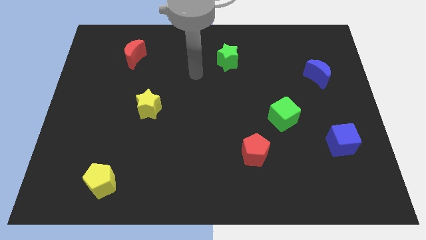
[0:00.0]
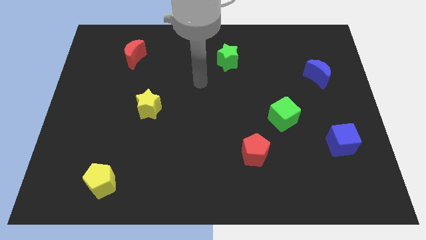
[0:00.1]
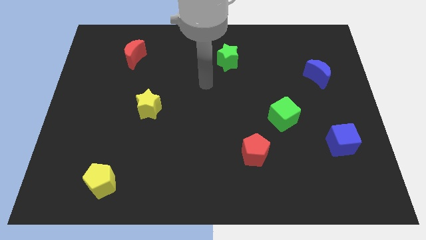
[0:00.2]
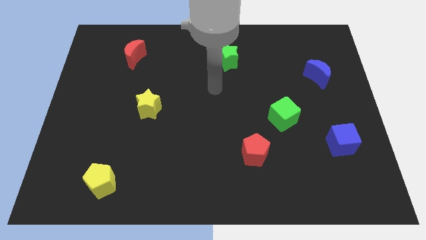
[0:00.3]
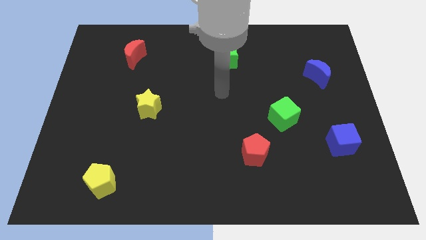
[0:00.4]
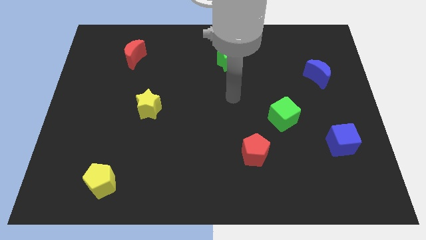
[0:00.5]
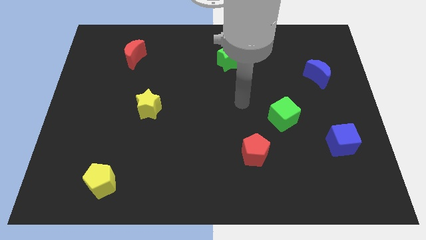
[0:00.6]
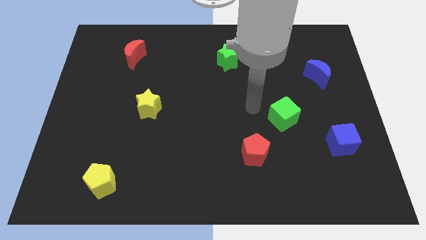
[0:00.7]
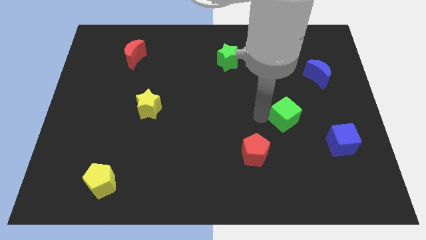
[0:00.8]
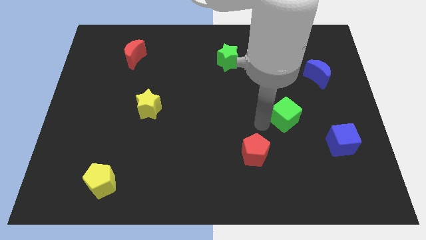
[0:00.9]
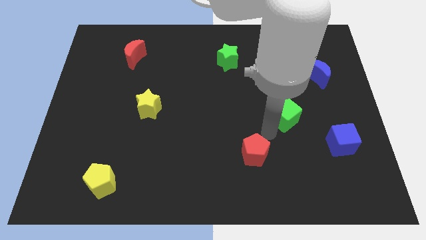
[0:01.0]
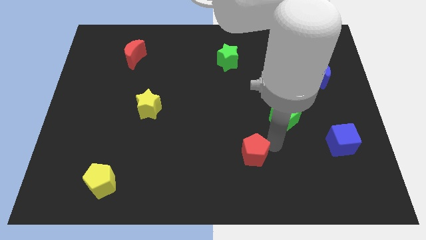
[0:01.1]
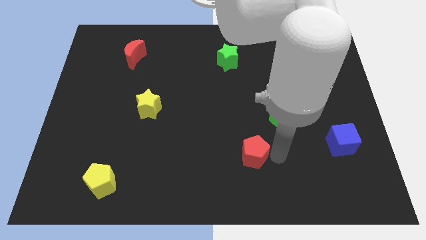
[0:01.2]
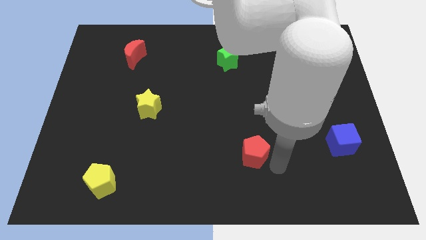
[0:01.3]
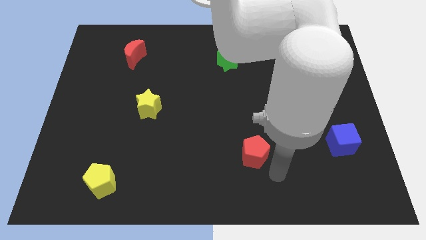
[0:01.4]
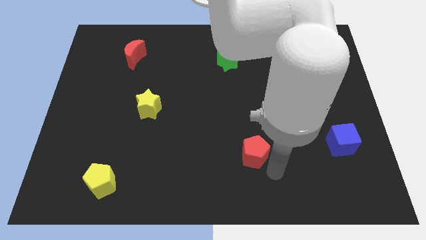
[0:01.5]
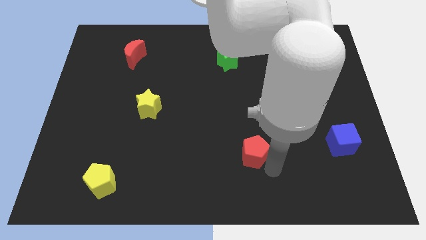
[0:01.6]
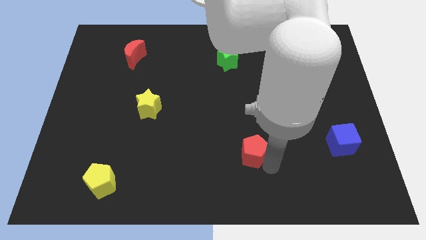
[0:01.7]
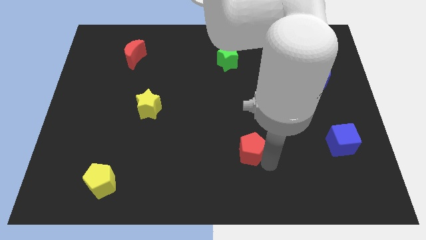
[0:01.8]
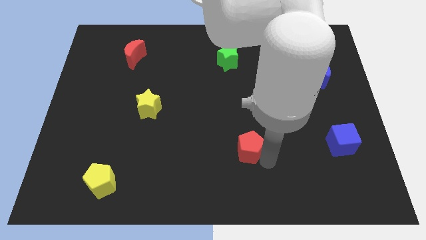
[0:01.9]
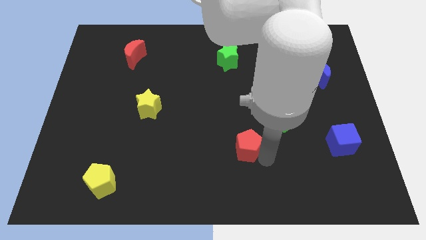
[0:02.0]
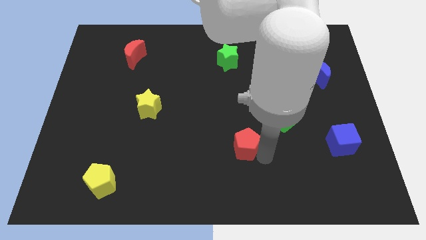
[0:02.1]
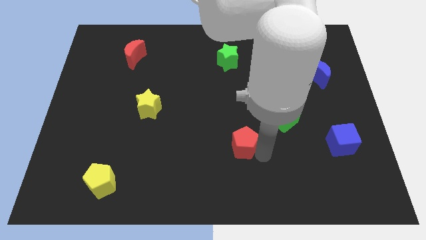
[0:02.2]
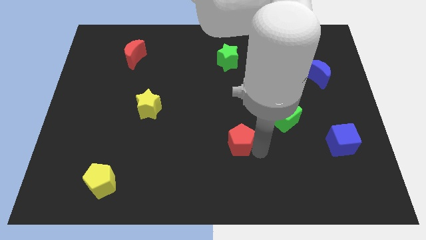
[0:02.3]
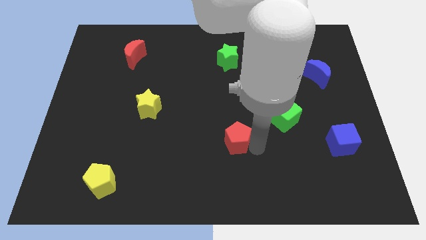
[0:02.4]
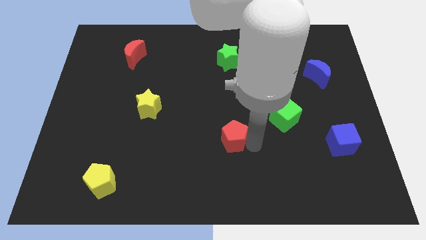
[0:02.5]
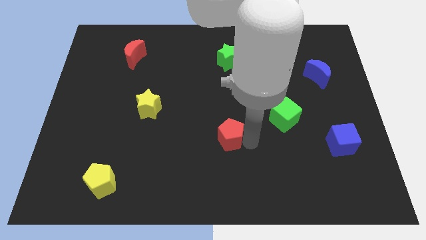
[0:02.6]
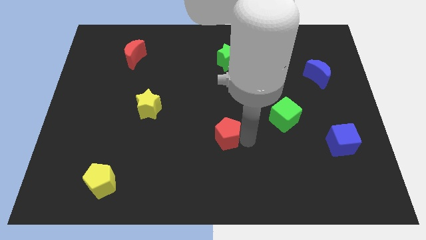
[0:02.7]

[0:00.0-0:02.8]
push the red pentagon diagonally up and to the left a bit

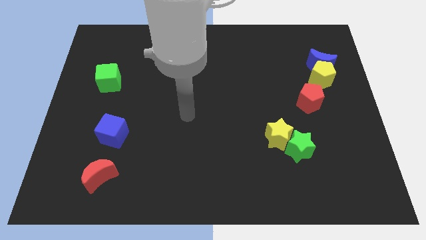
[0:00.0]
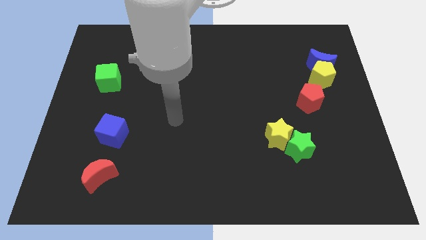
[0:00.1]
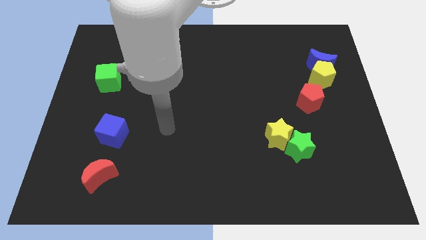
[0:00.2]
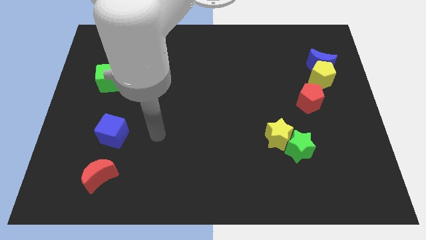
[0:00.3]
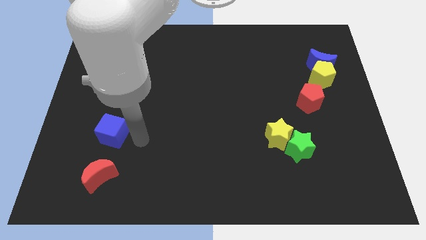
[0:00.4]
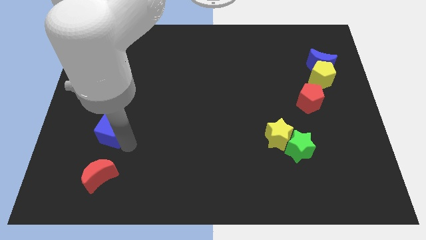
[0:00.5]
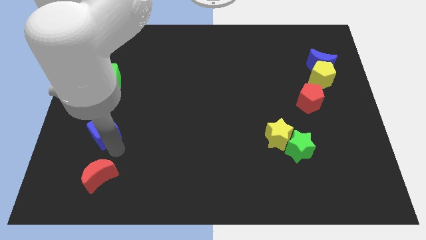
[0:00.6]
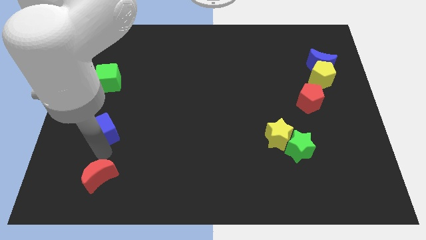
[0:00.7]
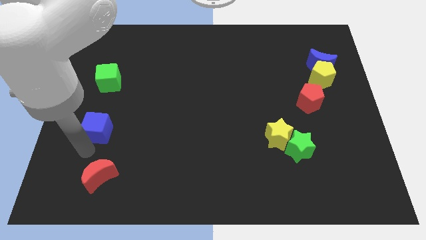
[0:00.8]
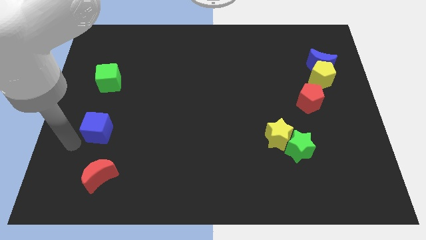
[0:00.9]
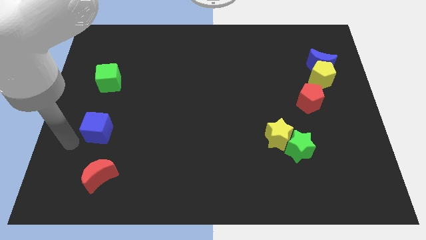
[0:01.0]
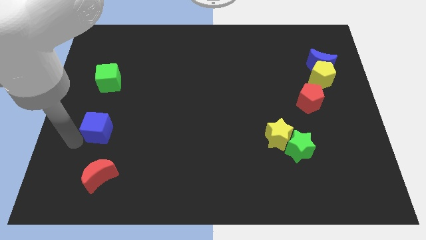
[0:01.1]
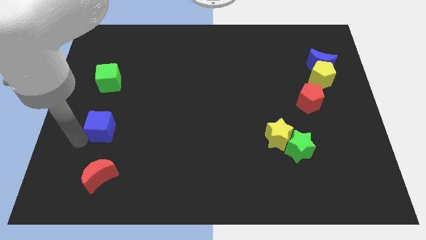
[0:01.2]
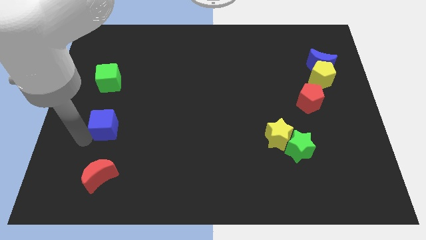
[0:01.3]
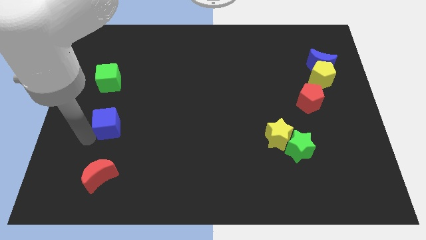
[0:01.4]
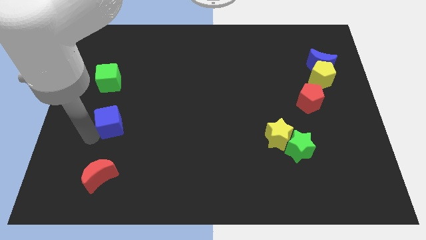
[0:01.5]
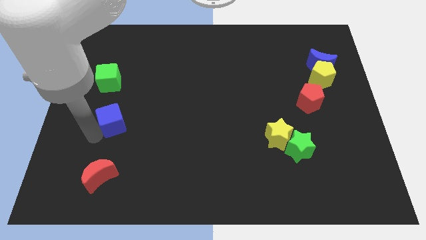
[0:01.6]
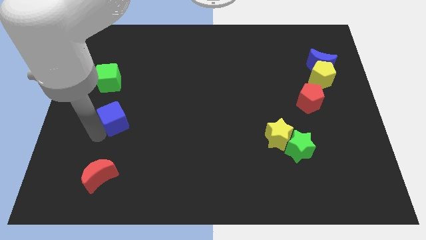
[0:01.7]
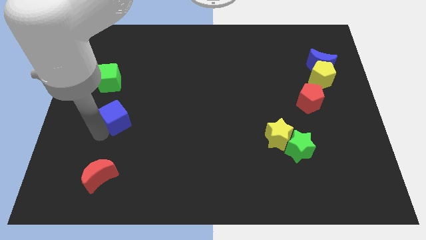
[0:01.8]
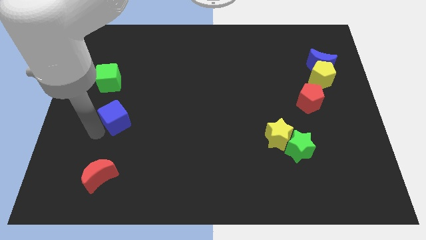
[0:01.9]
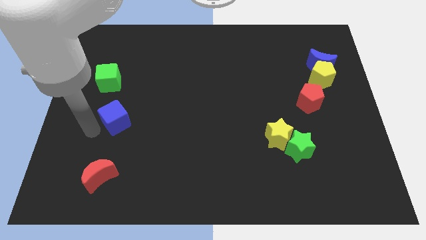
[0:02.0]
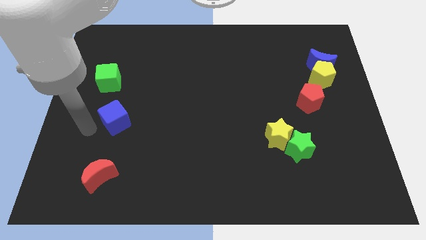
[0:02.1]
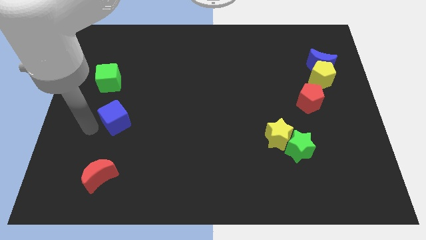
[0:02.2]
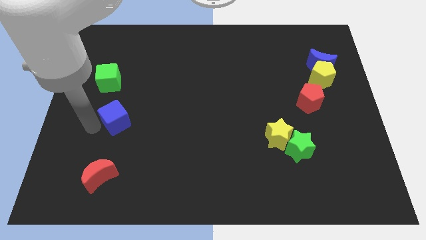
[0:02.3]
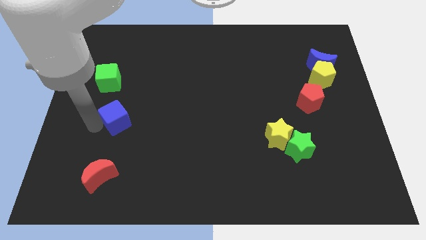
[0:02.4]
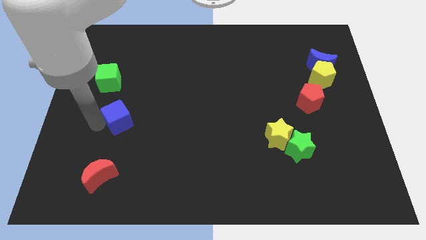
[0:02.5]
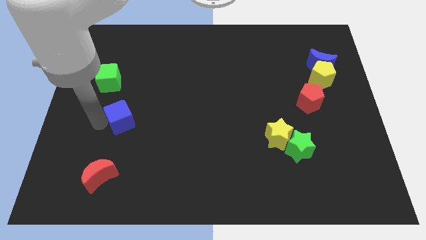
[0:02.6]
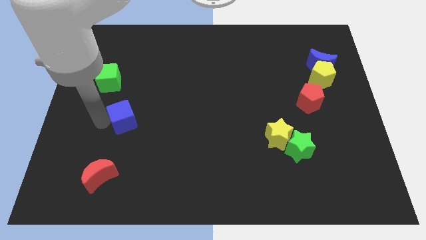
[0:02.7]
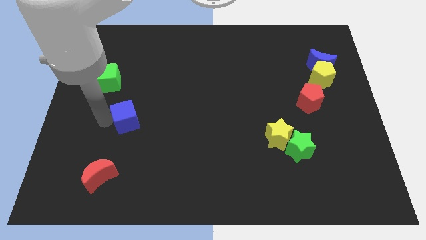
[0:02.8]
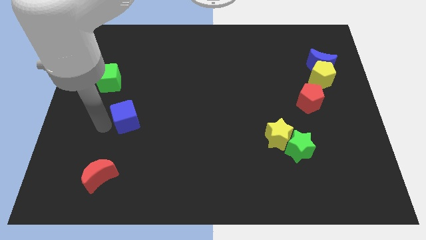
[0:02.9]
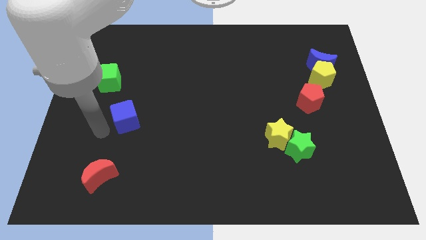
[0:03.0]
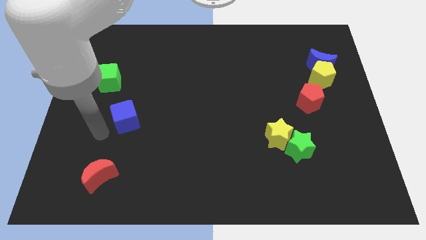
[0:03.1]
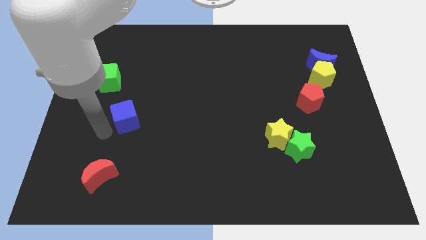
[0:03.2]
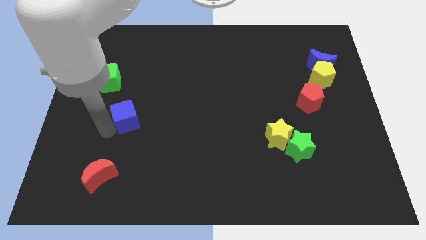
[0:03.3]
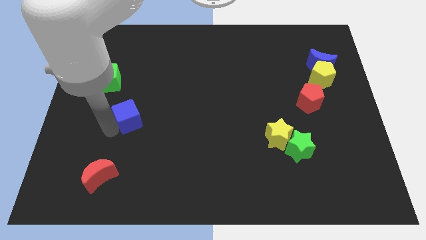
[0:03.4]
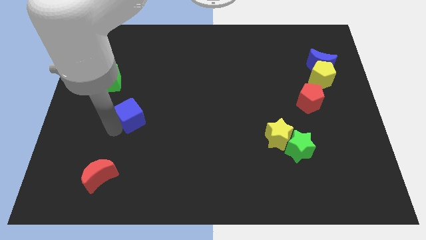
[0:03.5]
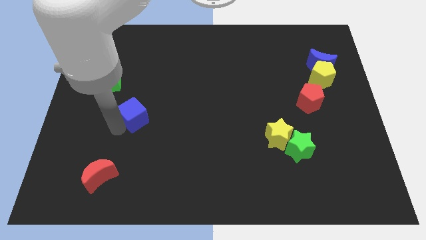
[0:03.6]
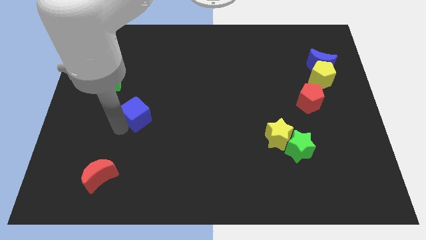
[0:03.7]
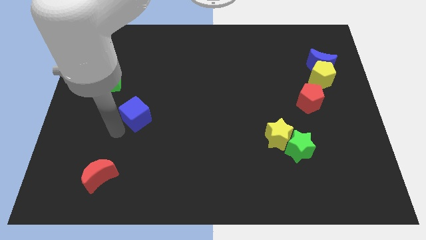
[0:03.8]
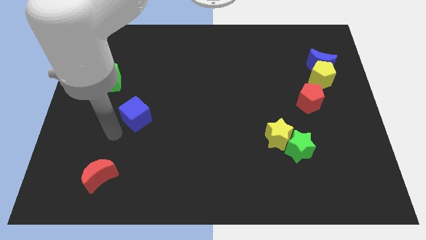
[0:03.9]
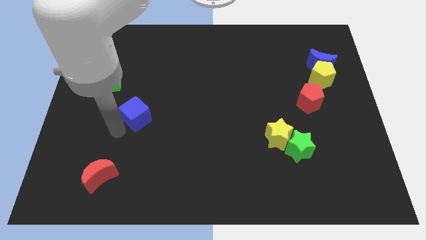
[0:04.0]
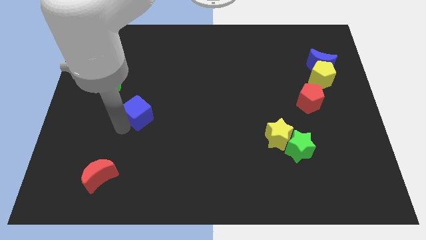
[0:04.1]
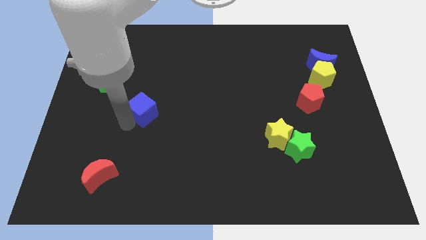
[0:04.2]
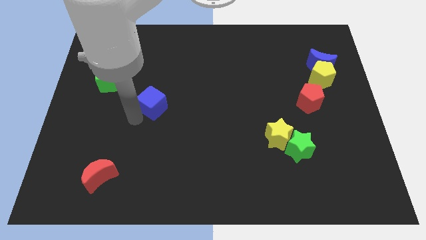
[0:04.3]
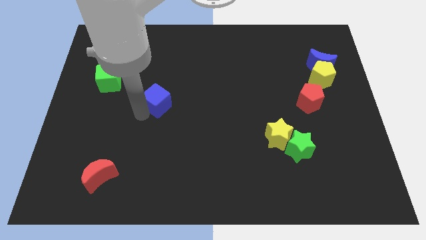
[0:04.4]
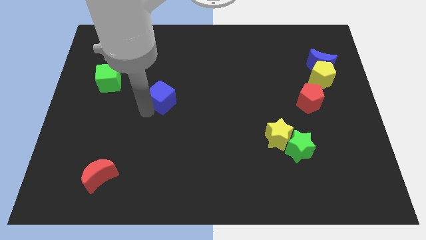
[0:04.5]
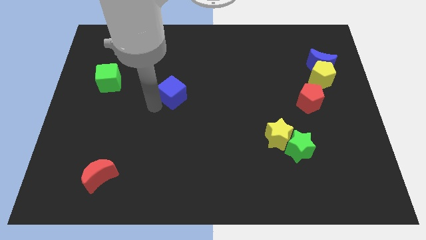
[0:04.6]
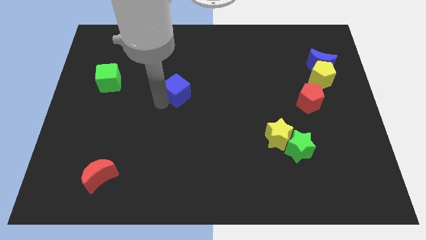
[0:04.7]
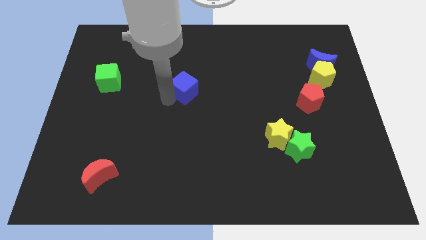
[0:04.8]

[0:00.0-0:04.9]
slide the blue cube up and right diagonally

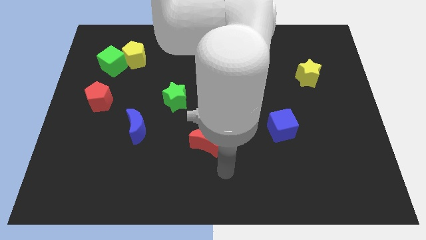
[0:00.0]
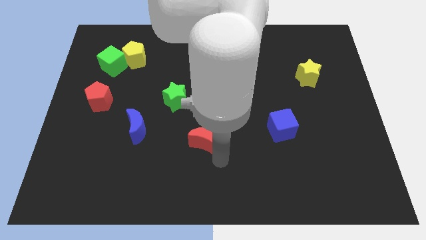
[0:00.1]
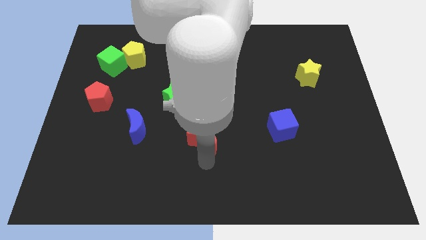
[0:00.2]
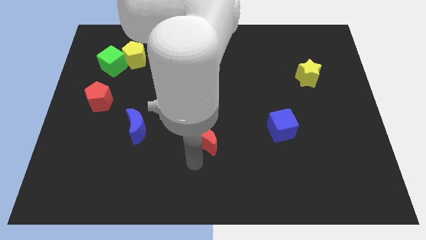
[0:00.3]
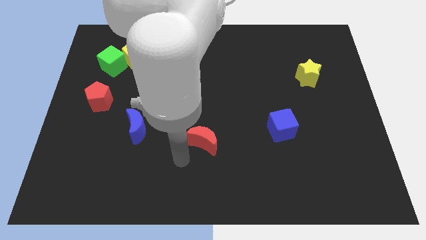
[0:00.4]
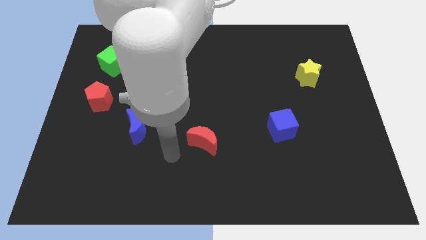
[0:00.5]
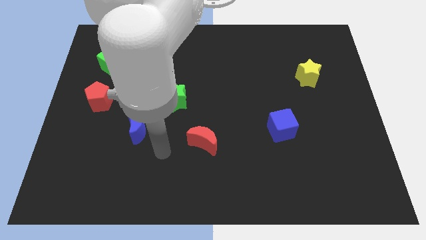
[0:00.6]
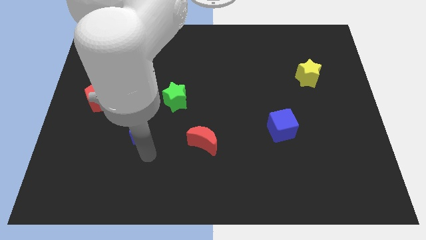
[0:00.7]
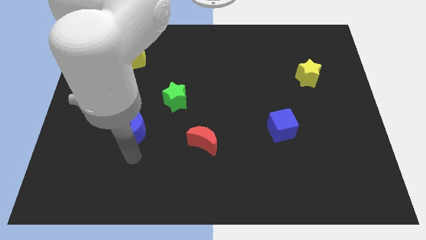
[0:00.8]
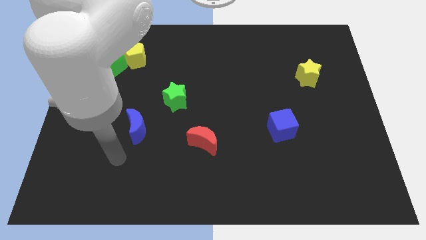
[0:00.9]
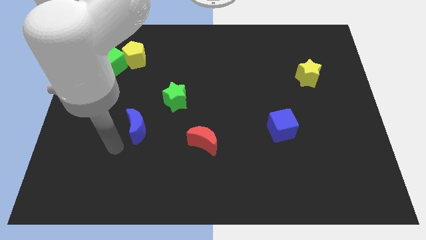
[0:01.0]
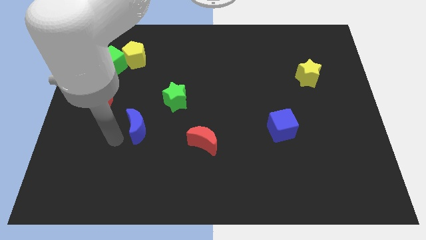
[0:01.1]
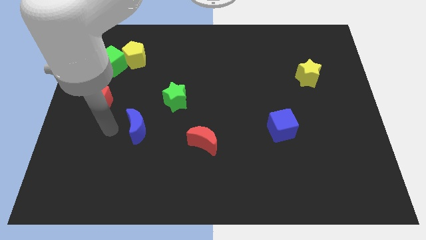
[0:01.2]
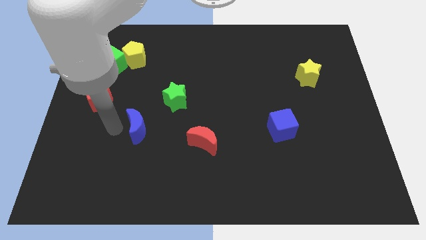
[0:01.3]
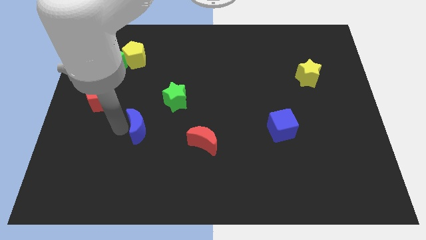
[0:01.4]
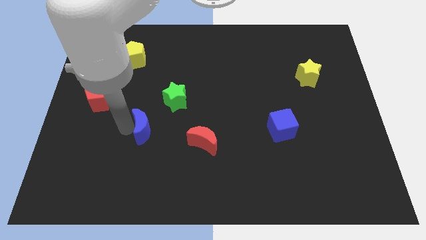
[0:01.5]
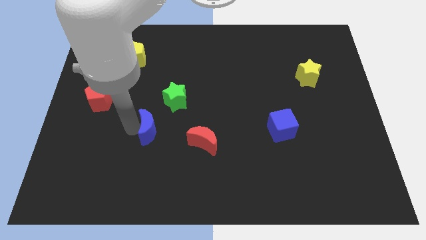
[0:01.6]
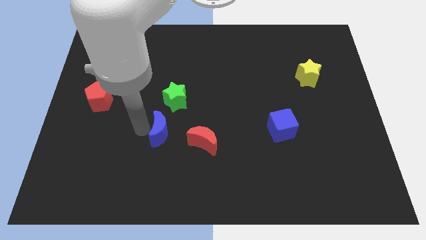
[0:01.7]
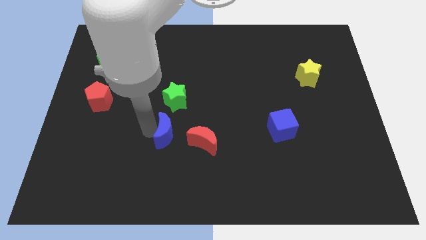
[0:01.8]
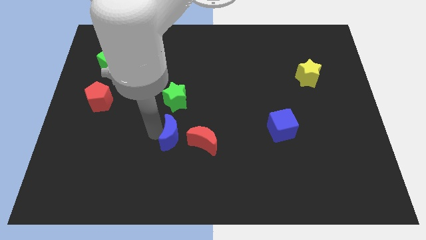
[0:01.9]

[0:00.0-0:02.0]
move the blue moon a little right
